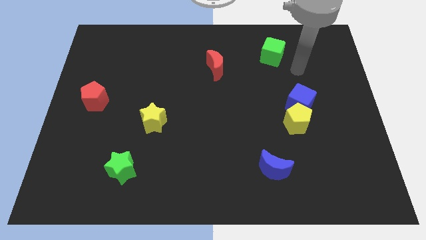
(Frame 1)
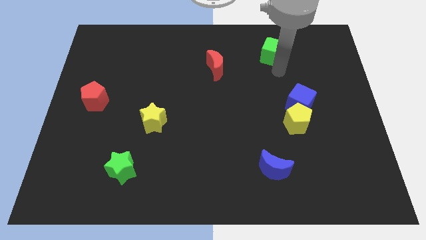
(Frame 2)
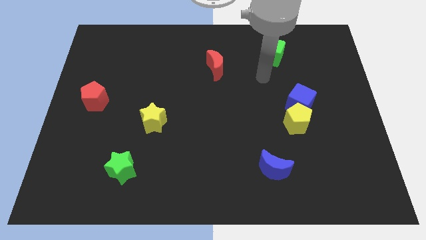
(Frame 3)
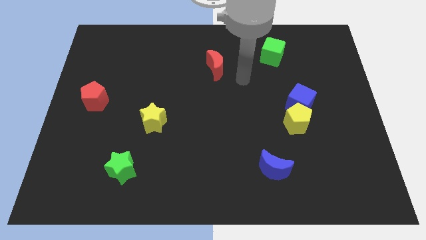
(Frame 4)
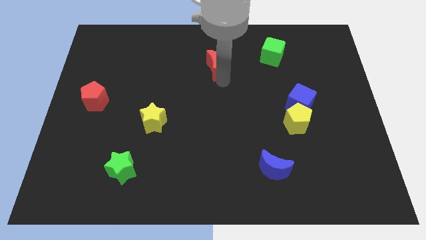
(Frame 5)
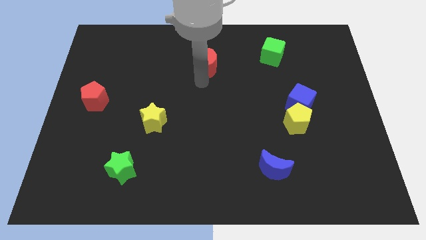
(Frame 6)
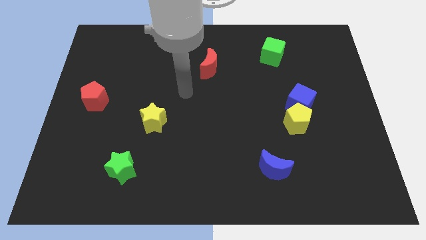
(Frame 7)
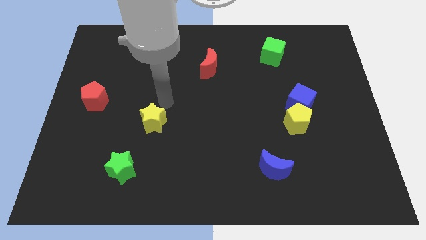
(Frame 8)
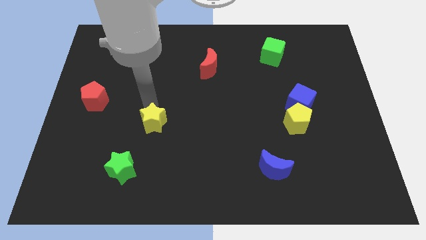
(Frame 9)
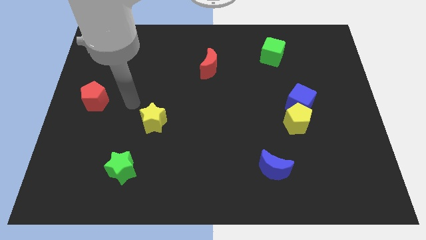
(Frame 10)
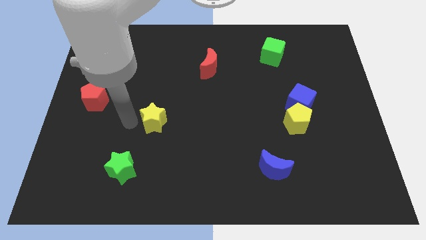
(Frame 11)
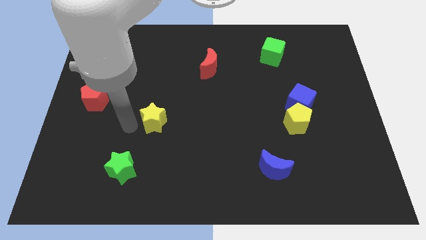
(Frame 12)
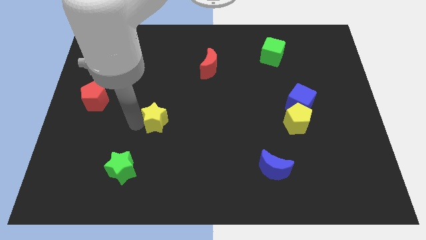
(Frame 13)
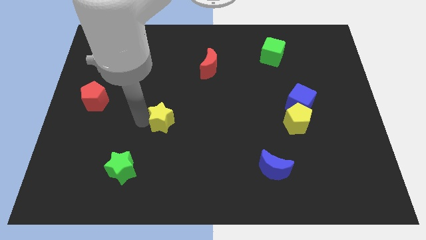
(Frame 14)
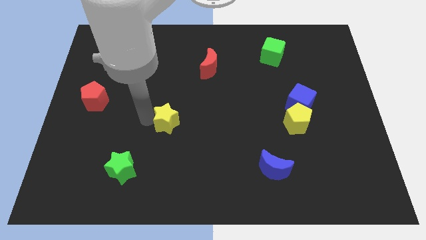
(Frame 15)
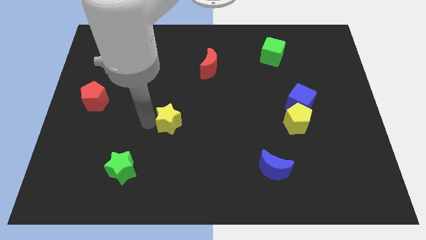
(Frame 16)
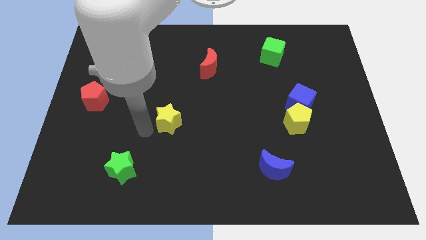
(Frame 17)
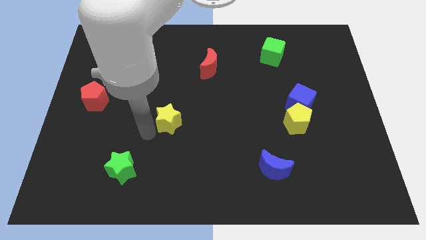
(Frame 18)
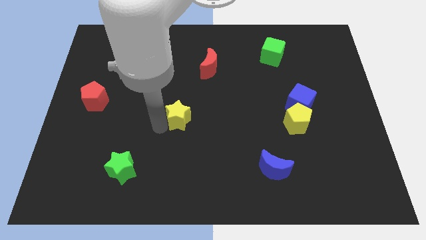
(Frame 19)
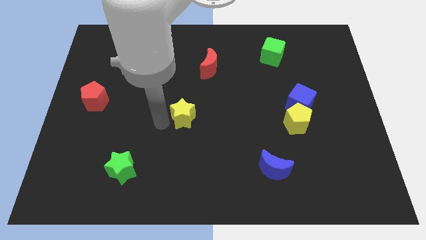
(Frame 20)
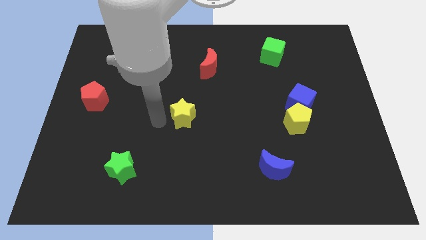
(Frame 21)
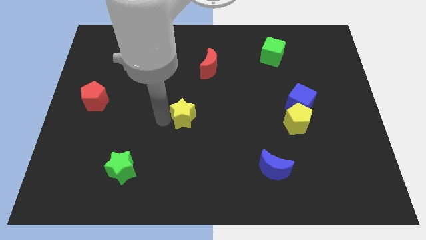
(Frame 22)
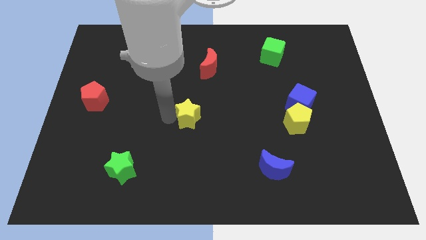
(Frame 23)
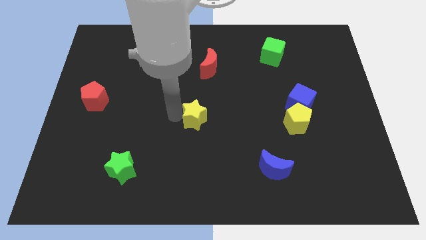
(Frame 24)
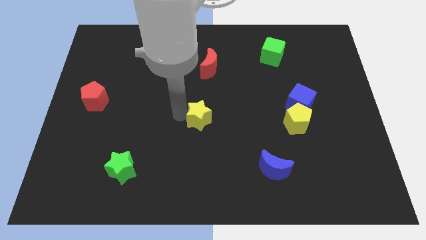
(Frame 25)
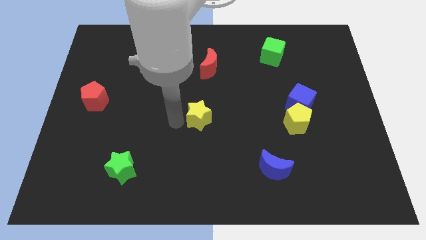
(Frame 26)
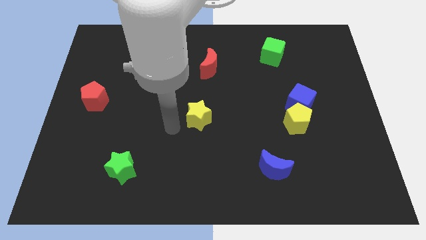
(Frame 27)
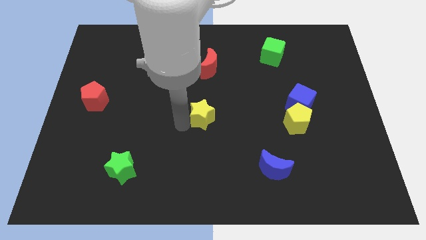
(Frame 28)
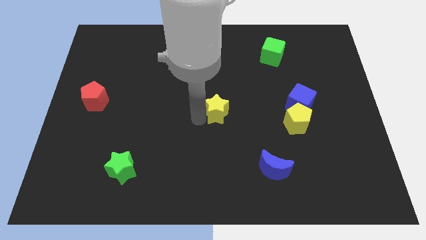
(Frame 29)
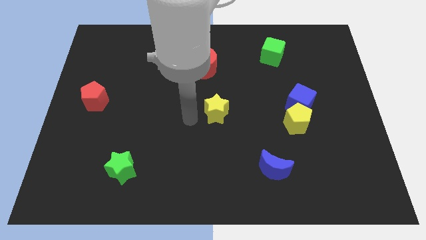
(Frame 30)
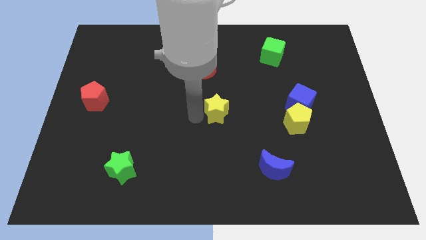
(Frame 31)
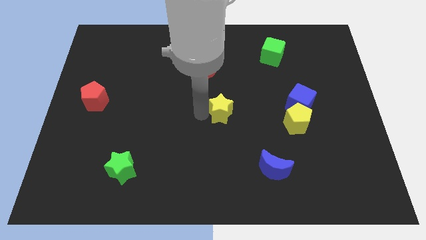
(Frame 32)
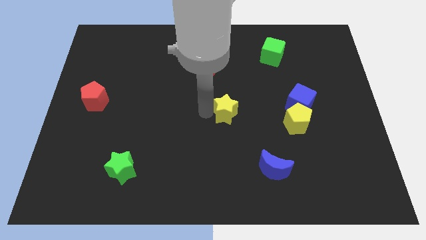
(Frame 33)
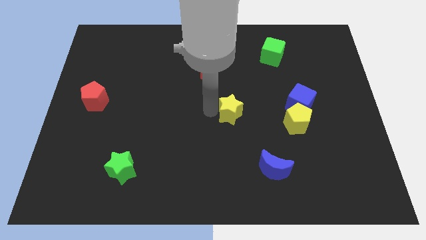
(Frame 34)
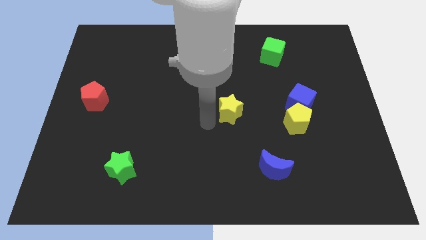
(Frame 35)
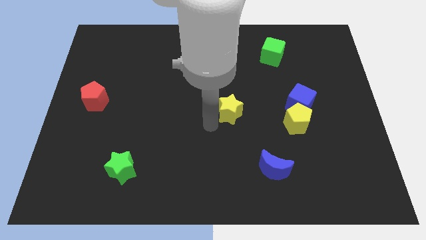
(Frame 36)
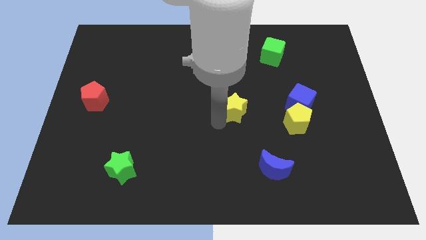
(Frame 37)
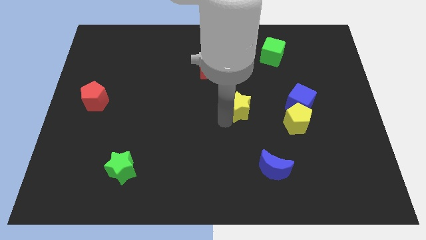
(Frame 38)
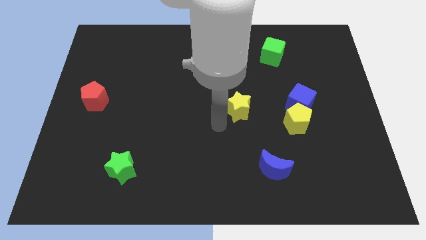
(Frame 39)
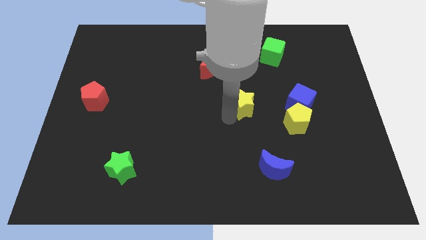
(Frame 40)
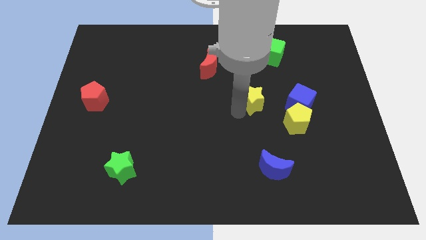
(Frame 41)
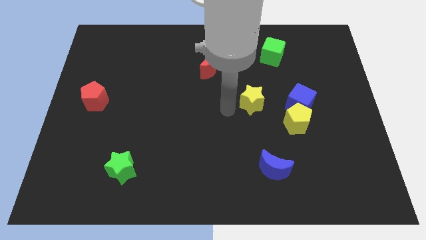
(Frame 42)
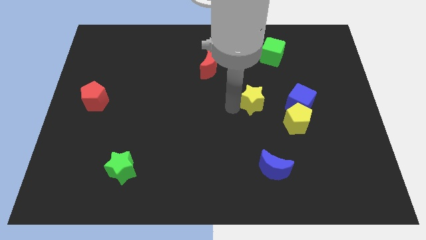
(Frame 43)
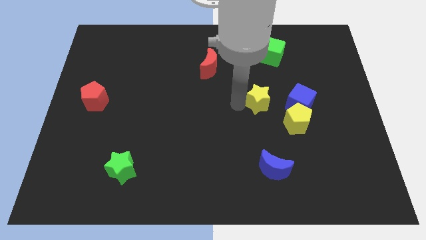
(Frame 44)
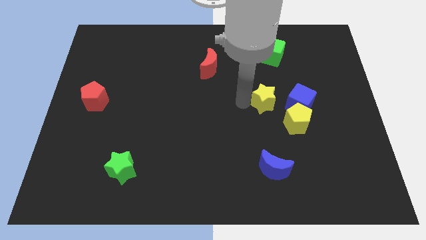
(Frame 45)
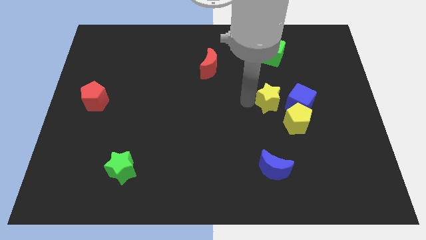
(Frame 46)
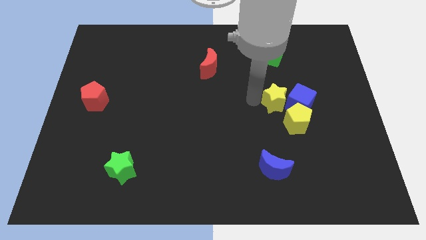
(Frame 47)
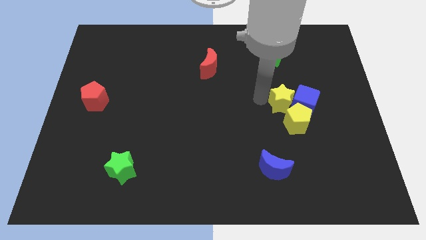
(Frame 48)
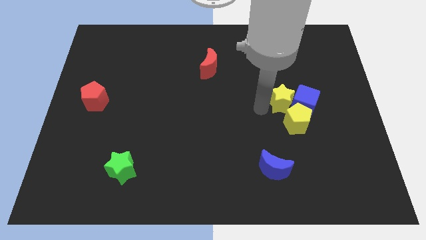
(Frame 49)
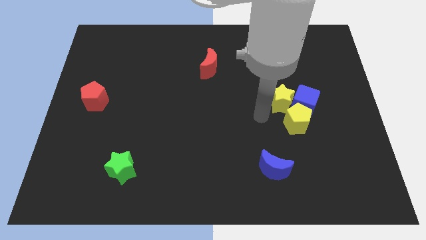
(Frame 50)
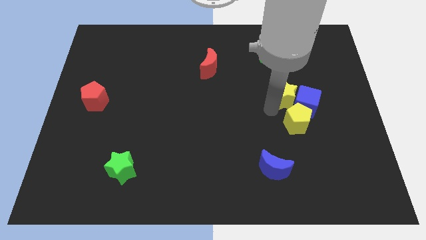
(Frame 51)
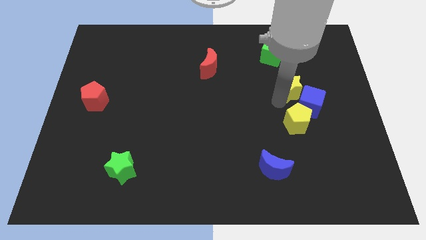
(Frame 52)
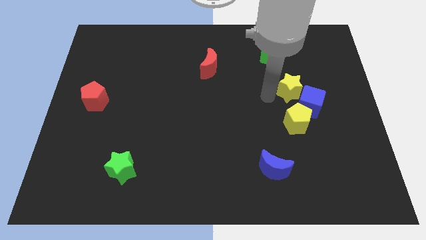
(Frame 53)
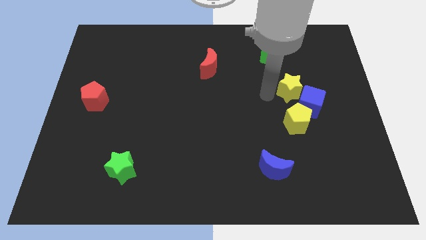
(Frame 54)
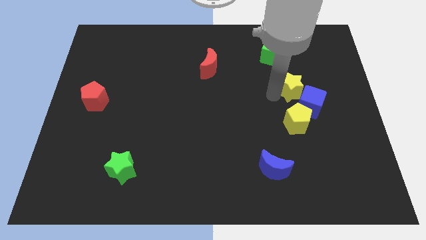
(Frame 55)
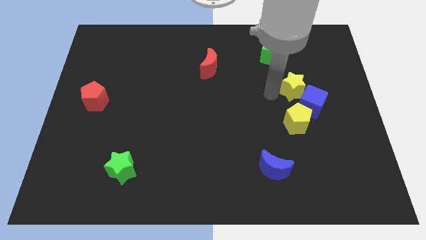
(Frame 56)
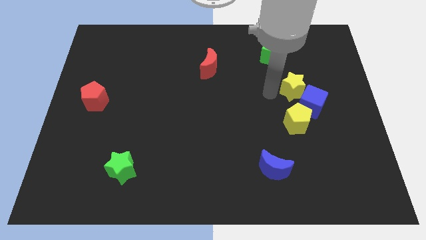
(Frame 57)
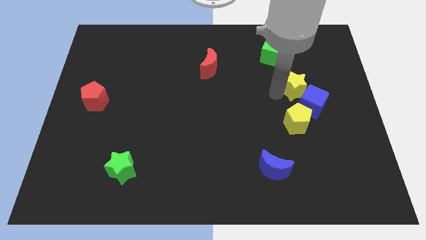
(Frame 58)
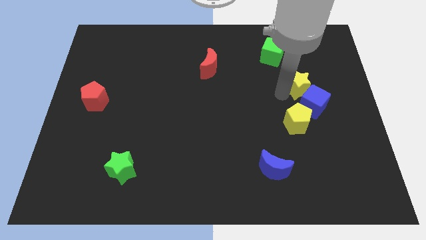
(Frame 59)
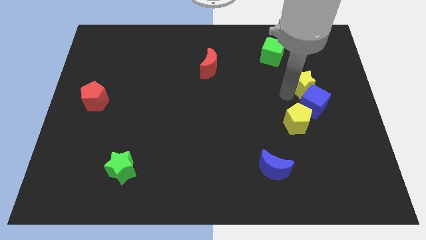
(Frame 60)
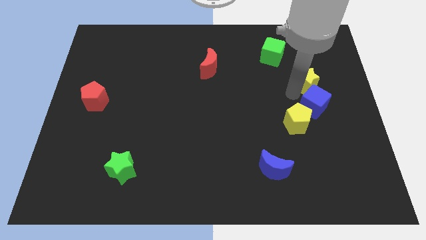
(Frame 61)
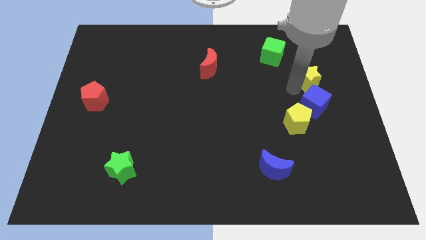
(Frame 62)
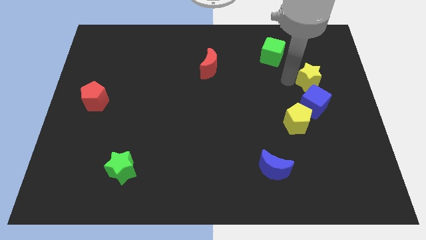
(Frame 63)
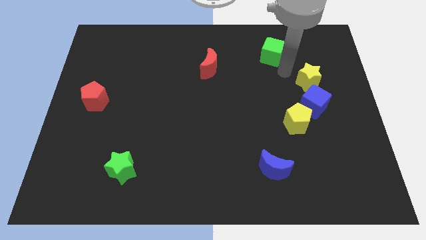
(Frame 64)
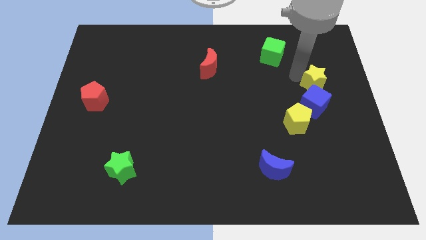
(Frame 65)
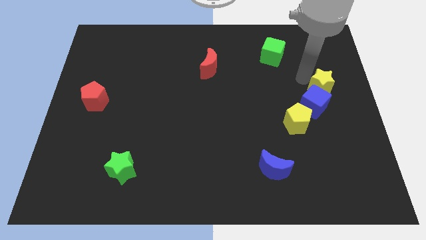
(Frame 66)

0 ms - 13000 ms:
push the yellow star to the right side of the board

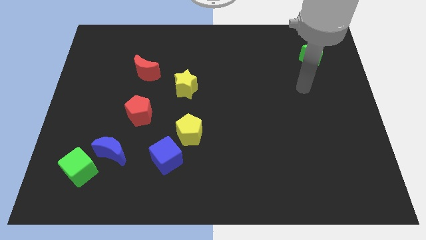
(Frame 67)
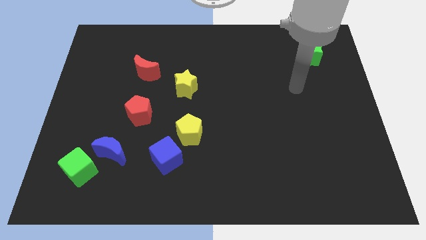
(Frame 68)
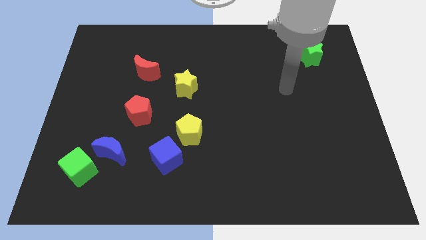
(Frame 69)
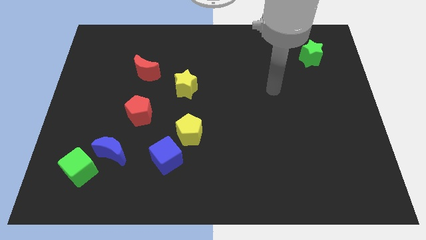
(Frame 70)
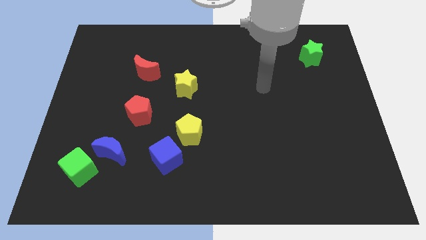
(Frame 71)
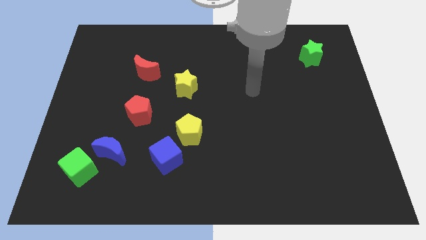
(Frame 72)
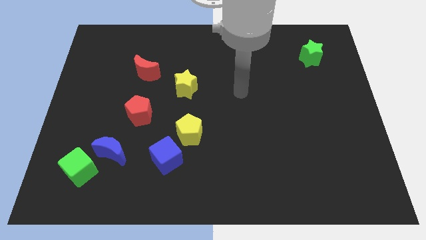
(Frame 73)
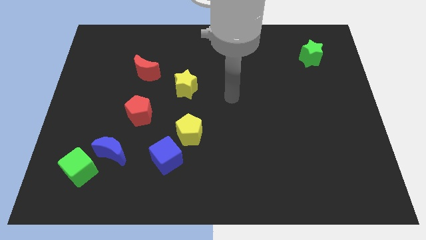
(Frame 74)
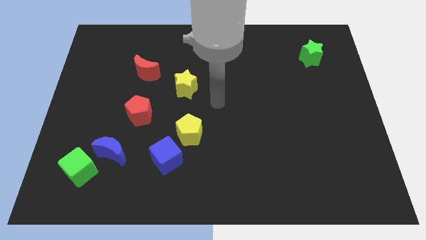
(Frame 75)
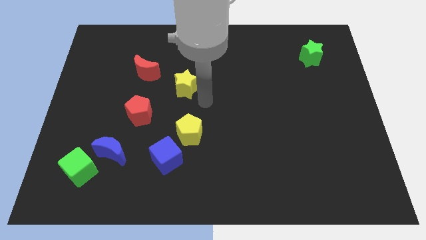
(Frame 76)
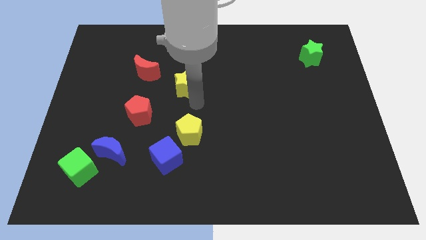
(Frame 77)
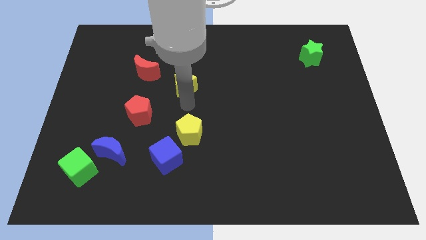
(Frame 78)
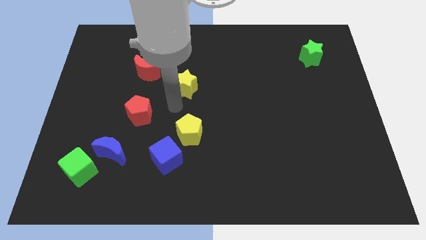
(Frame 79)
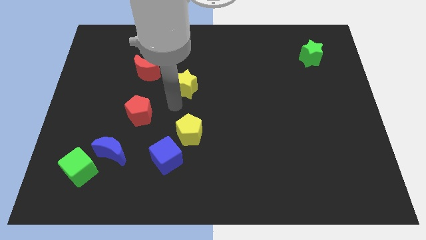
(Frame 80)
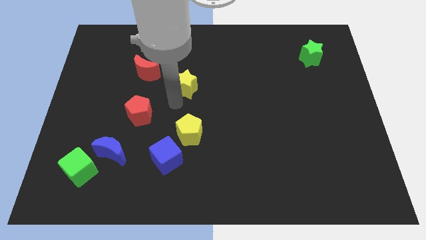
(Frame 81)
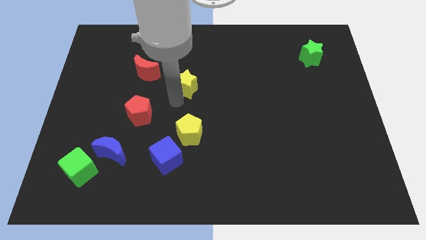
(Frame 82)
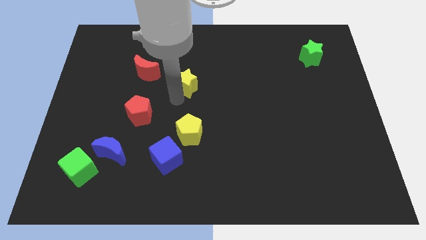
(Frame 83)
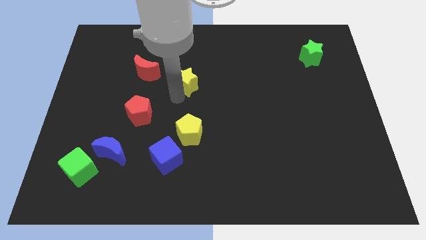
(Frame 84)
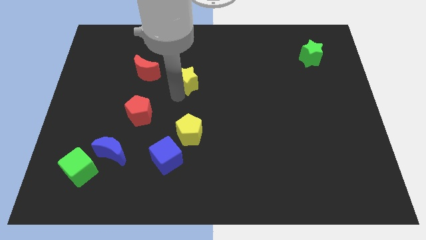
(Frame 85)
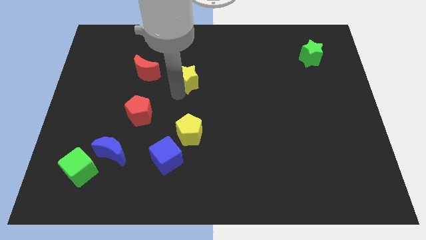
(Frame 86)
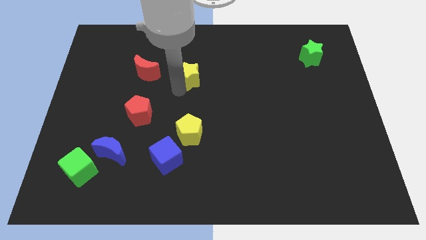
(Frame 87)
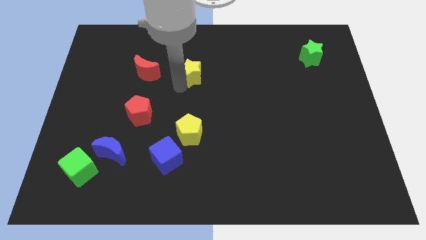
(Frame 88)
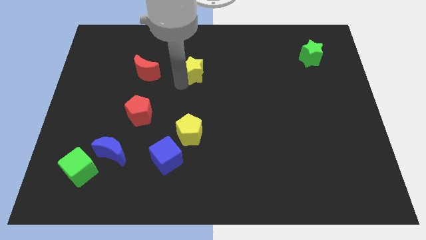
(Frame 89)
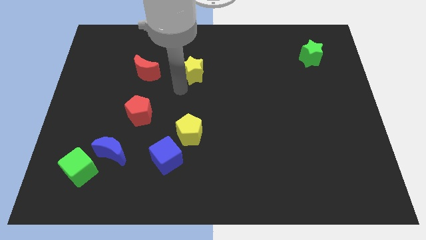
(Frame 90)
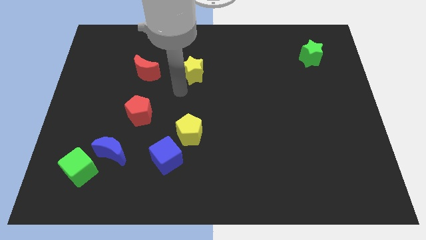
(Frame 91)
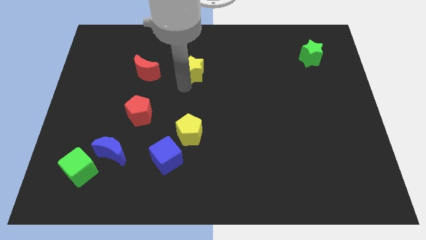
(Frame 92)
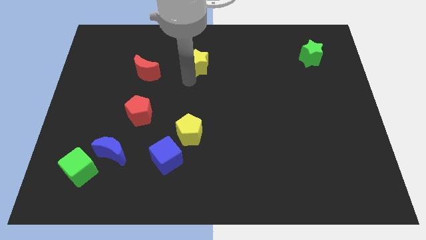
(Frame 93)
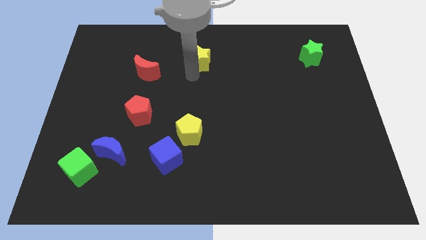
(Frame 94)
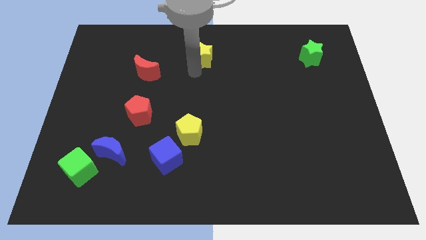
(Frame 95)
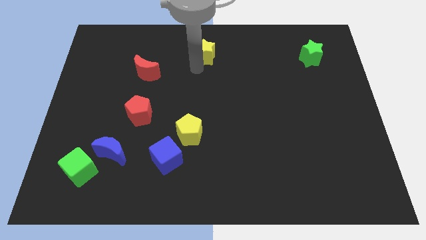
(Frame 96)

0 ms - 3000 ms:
put the yellow star to the top
